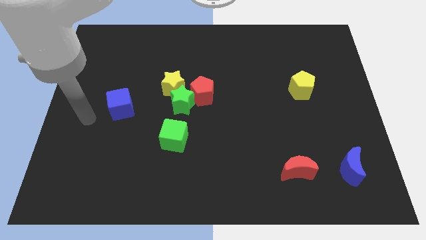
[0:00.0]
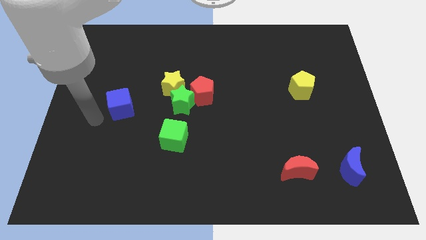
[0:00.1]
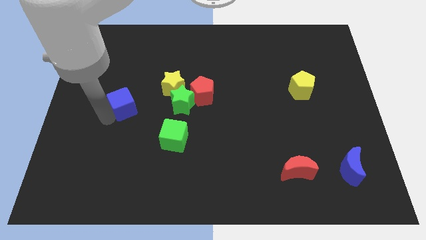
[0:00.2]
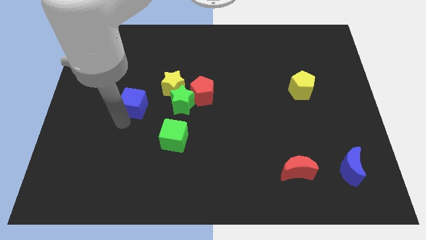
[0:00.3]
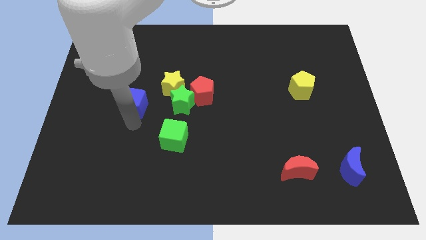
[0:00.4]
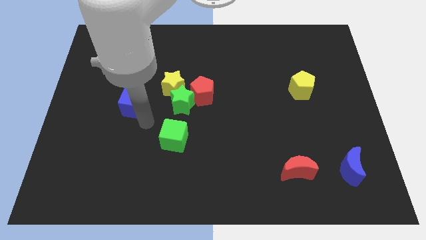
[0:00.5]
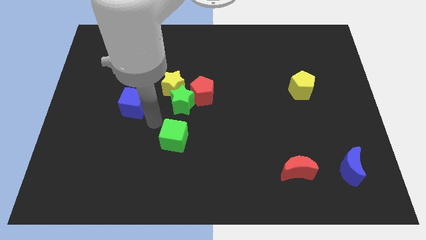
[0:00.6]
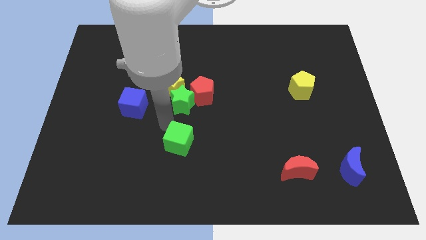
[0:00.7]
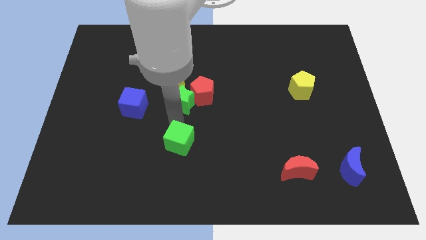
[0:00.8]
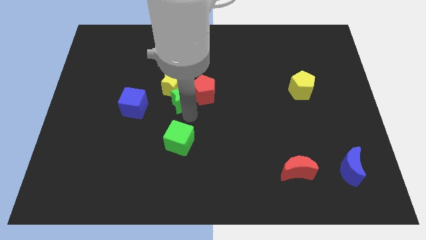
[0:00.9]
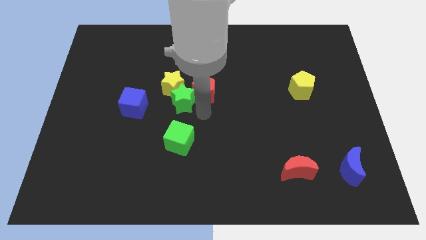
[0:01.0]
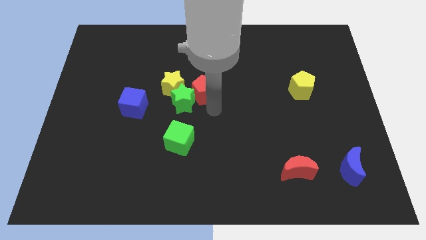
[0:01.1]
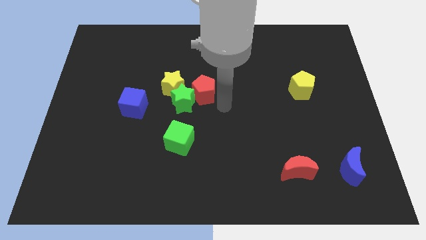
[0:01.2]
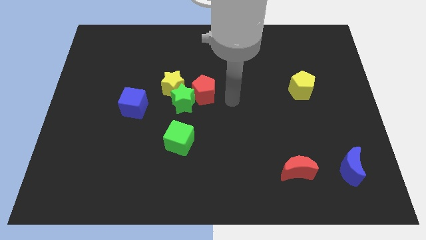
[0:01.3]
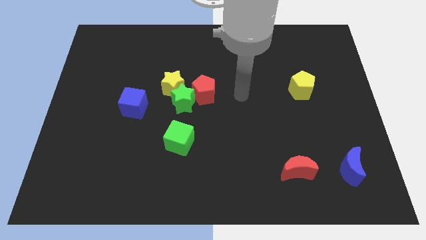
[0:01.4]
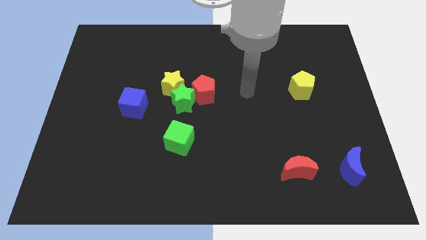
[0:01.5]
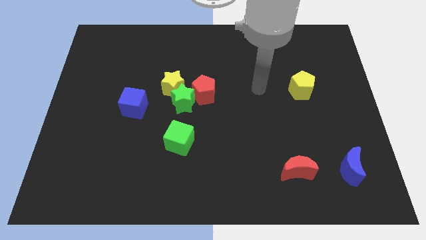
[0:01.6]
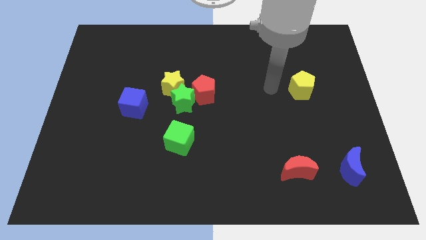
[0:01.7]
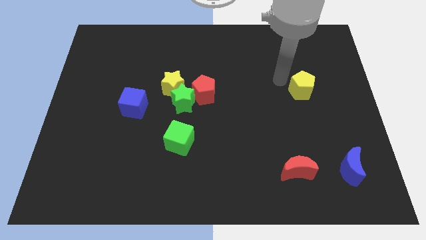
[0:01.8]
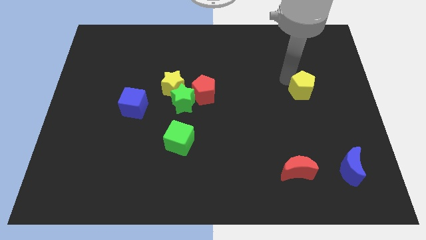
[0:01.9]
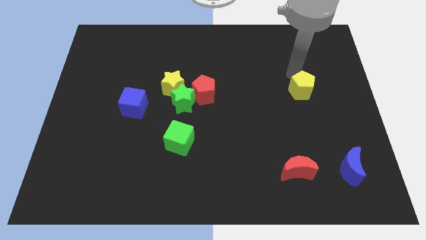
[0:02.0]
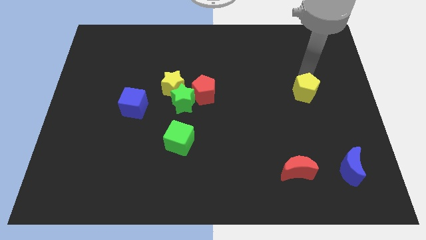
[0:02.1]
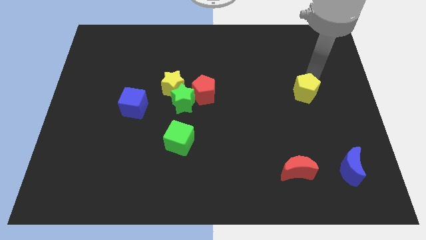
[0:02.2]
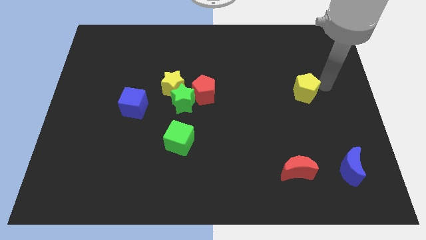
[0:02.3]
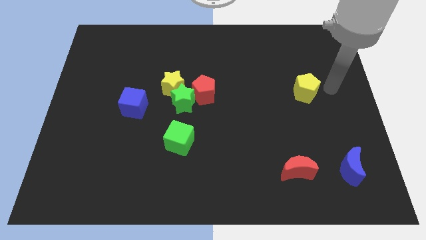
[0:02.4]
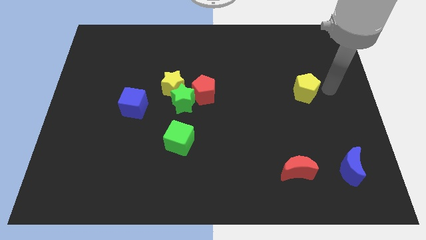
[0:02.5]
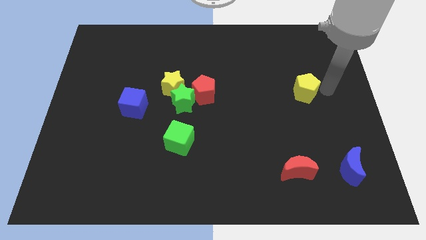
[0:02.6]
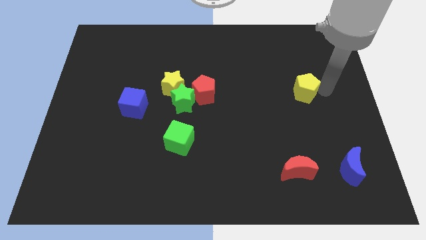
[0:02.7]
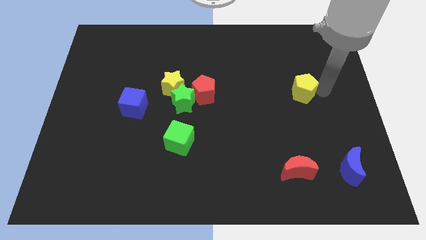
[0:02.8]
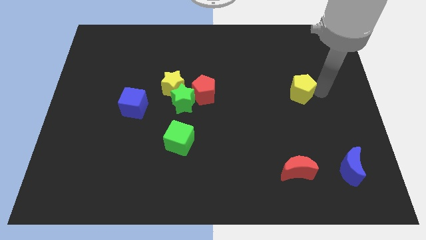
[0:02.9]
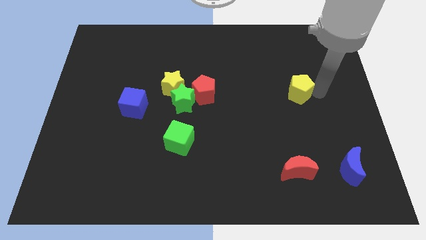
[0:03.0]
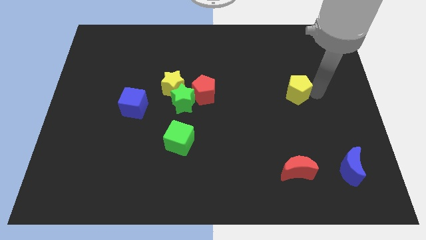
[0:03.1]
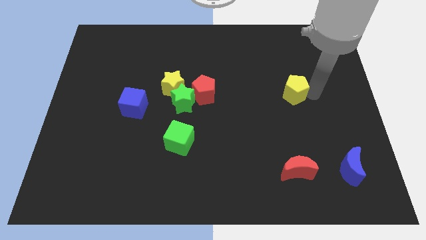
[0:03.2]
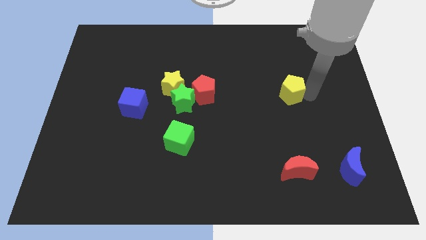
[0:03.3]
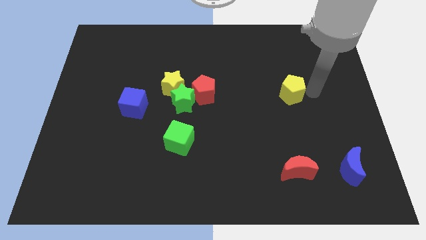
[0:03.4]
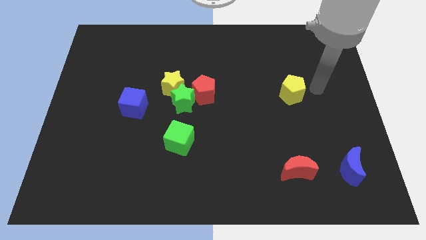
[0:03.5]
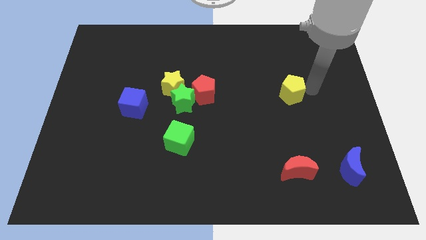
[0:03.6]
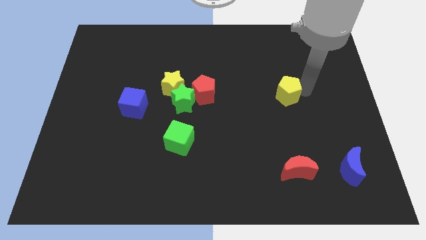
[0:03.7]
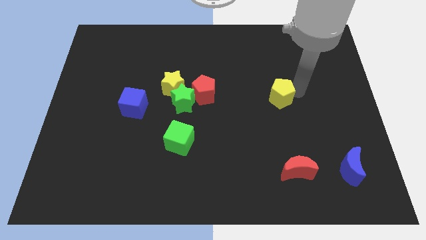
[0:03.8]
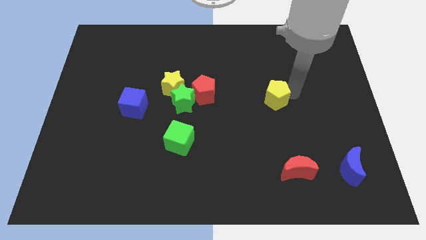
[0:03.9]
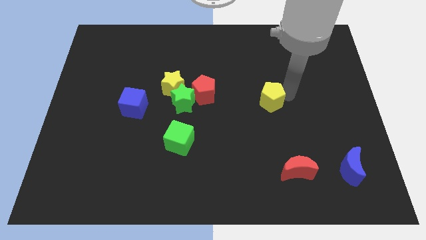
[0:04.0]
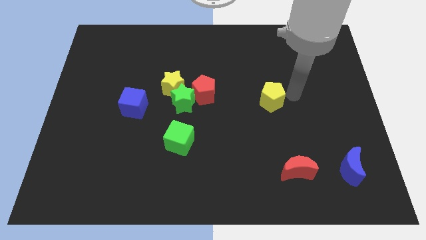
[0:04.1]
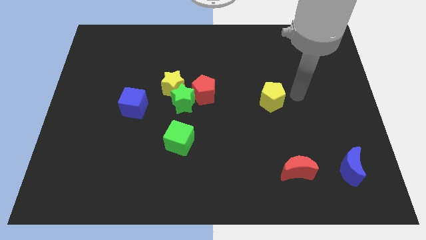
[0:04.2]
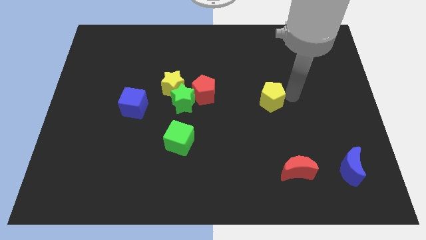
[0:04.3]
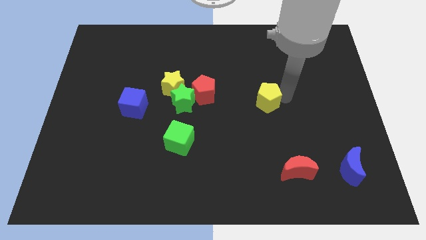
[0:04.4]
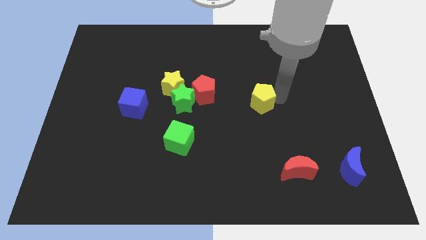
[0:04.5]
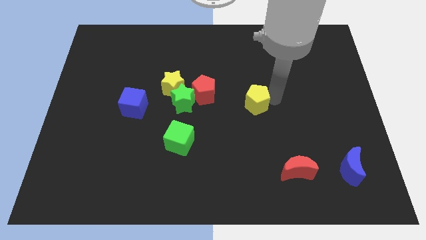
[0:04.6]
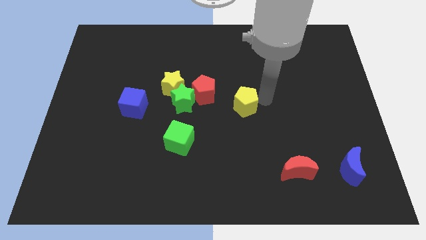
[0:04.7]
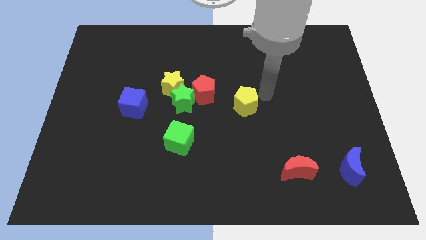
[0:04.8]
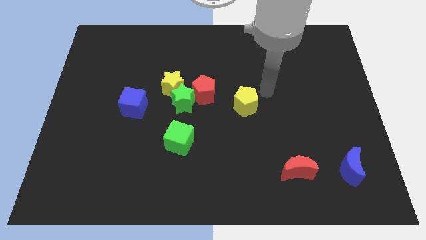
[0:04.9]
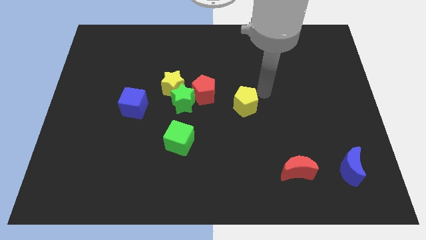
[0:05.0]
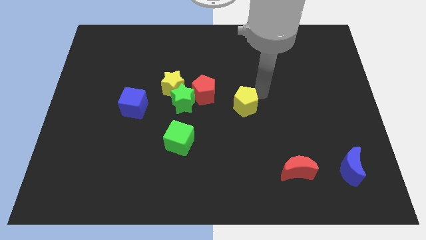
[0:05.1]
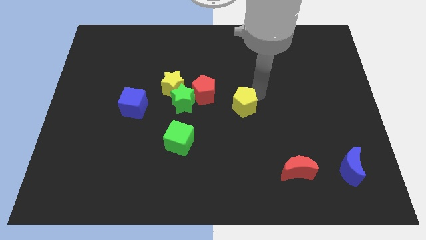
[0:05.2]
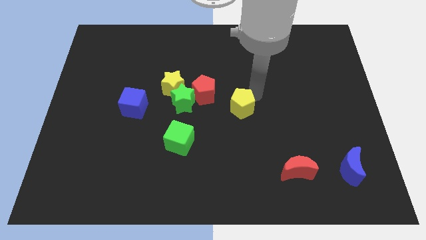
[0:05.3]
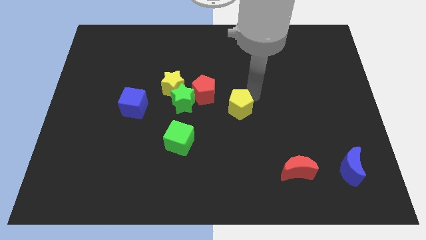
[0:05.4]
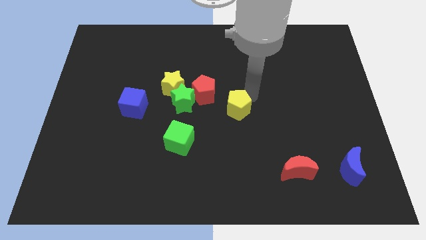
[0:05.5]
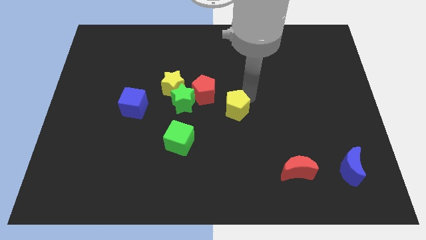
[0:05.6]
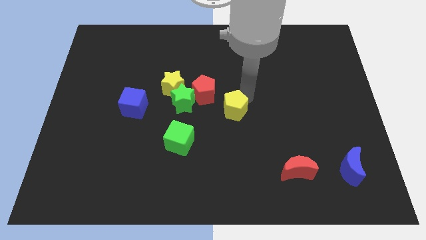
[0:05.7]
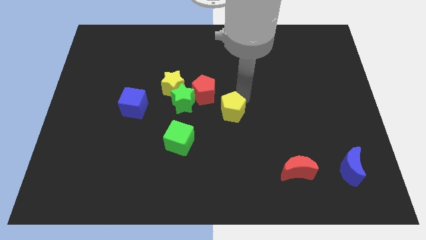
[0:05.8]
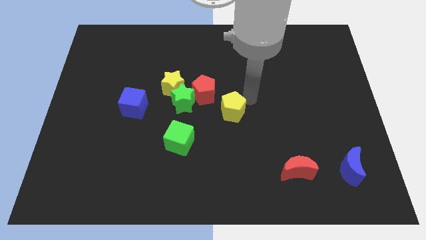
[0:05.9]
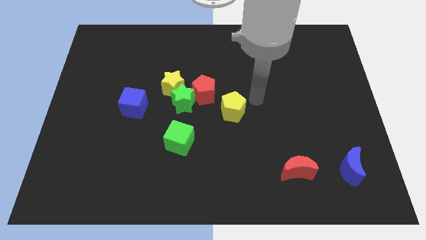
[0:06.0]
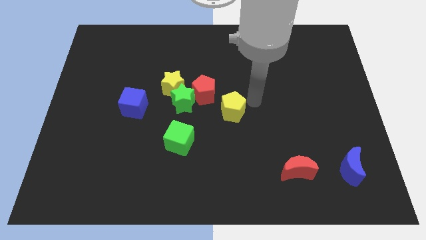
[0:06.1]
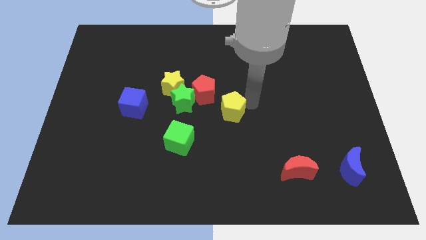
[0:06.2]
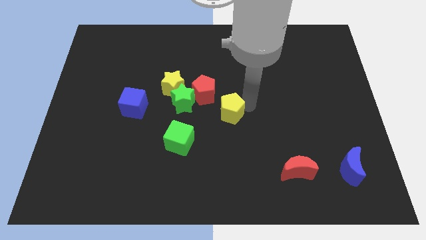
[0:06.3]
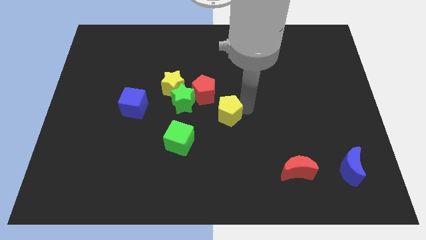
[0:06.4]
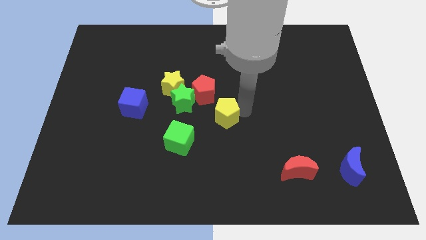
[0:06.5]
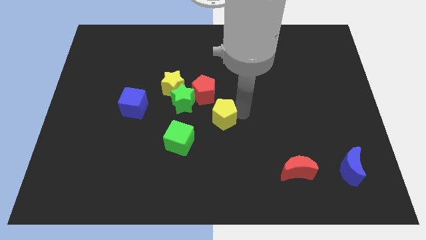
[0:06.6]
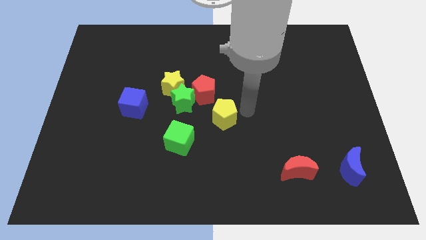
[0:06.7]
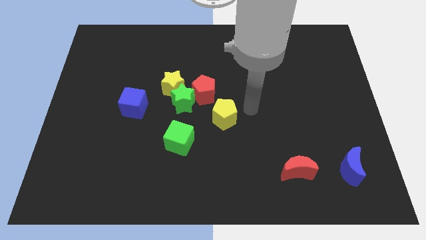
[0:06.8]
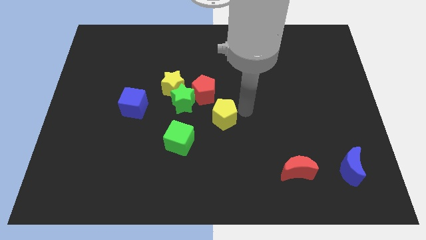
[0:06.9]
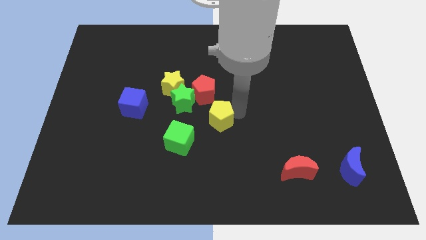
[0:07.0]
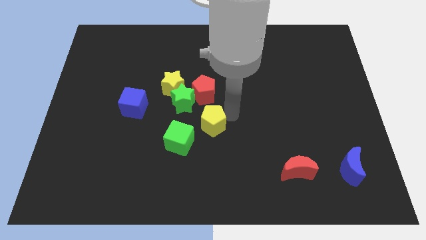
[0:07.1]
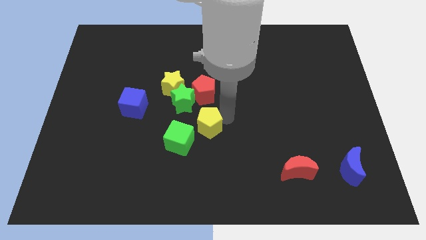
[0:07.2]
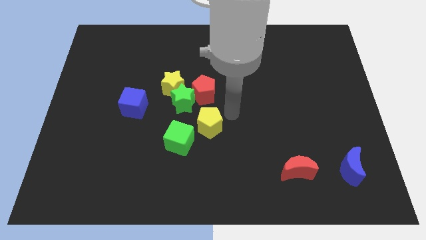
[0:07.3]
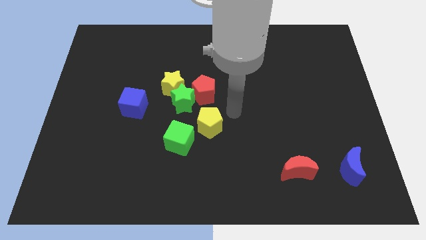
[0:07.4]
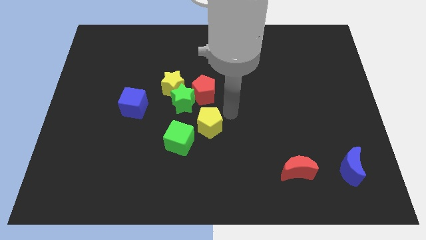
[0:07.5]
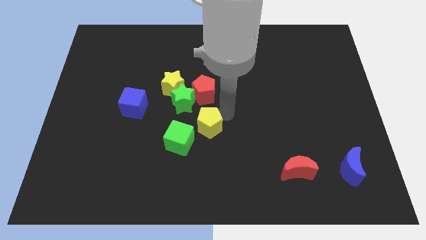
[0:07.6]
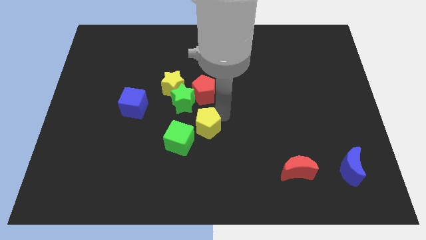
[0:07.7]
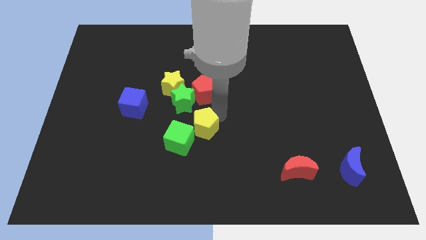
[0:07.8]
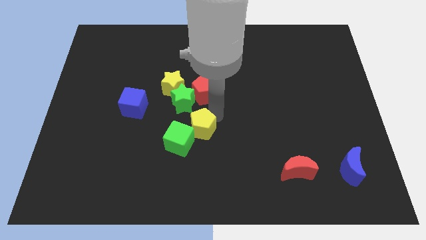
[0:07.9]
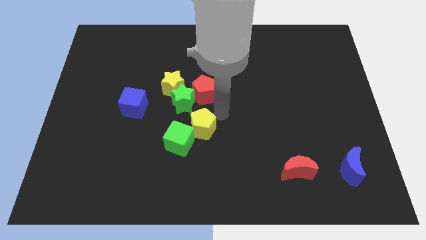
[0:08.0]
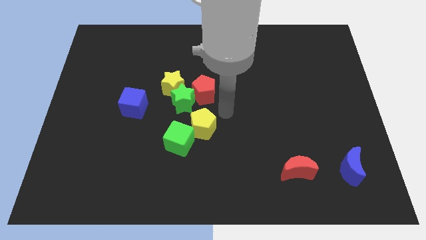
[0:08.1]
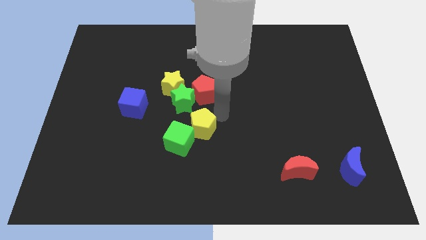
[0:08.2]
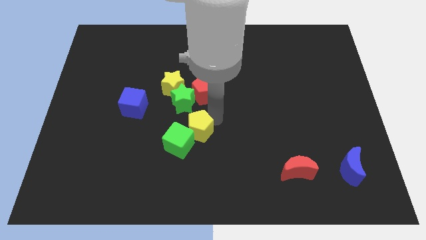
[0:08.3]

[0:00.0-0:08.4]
push the yellow pentagon to the green cube
